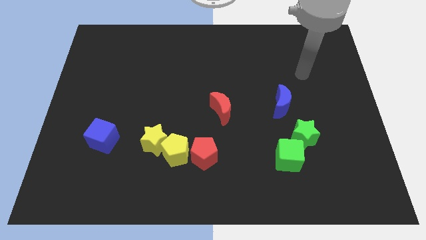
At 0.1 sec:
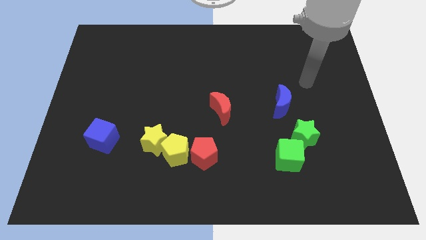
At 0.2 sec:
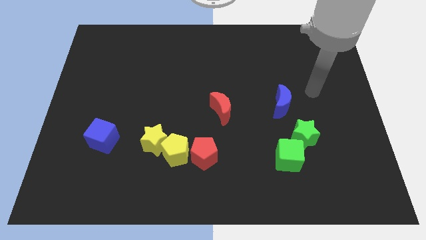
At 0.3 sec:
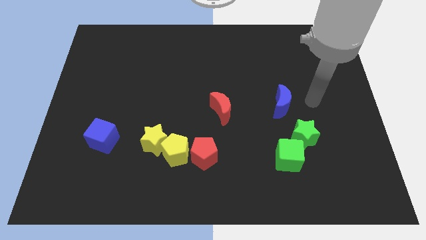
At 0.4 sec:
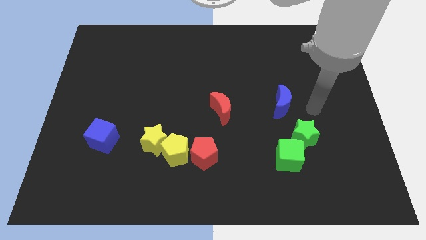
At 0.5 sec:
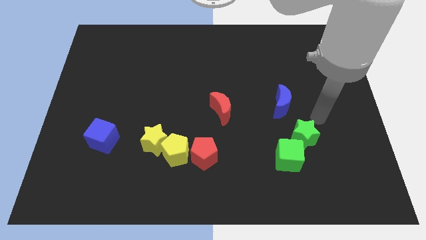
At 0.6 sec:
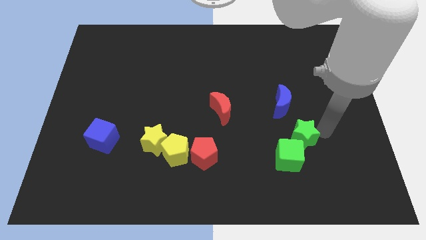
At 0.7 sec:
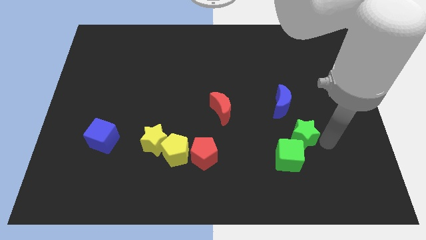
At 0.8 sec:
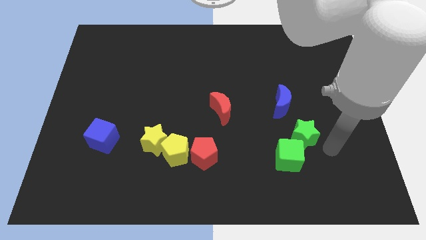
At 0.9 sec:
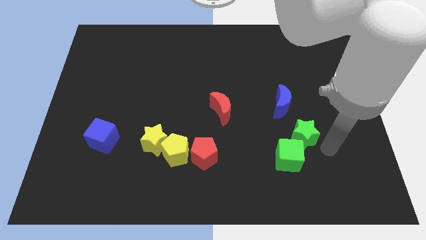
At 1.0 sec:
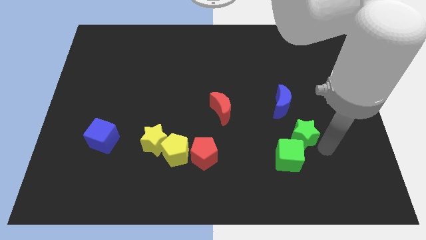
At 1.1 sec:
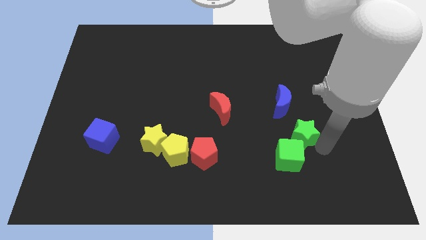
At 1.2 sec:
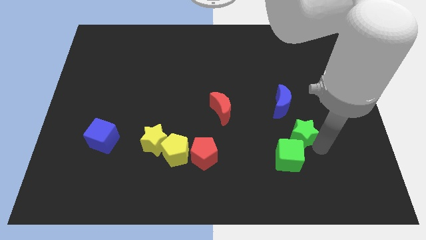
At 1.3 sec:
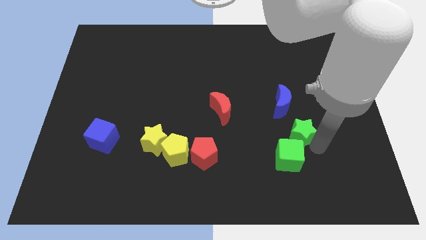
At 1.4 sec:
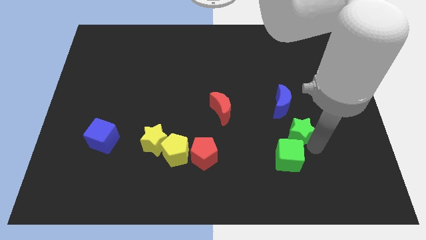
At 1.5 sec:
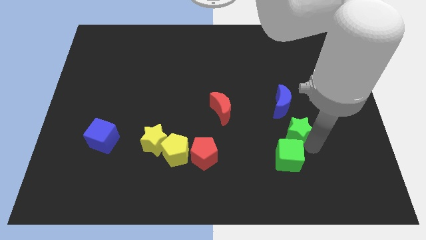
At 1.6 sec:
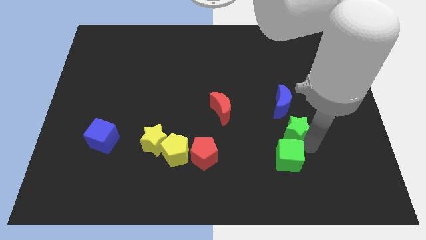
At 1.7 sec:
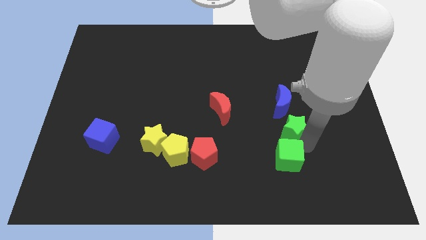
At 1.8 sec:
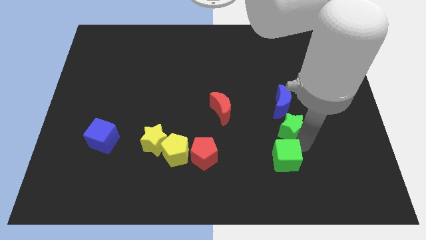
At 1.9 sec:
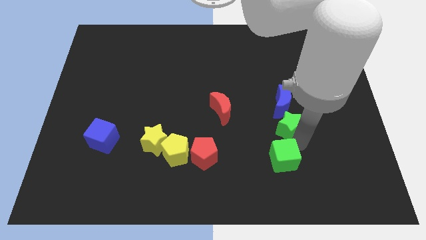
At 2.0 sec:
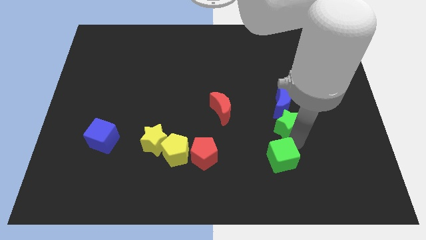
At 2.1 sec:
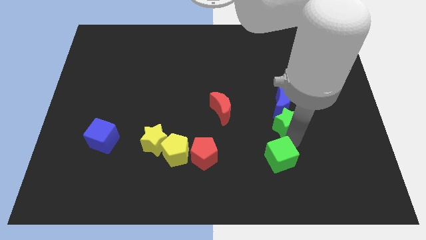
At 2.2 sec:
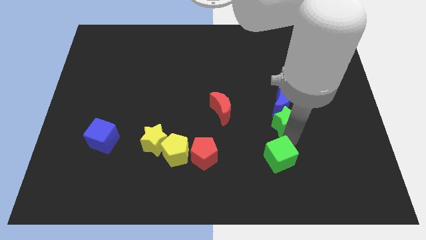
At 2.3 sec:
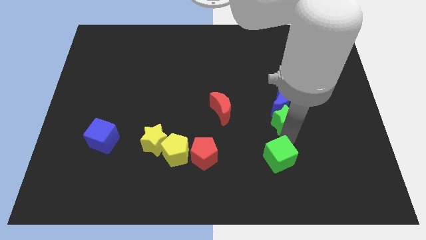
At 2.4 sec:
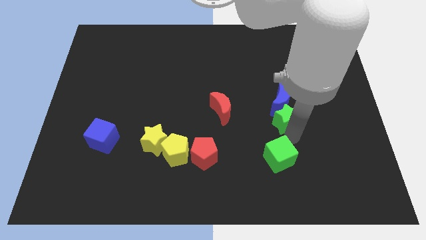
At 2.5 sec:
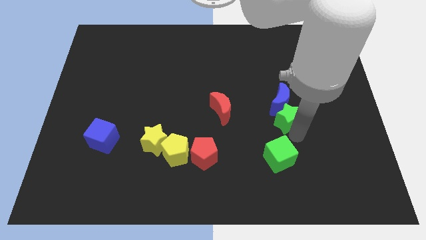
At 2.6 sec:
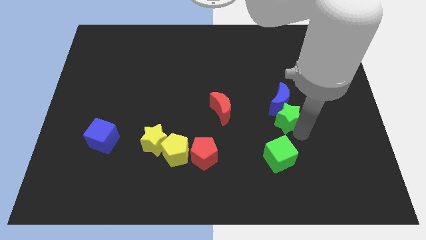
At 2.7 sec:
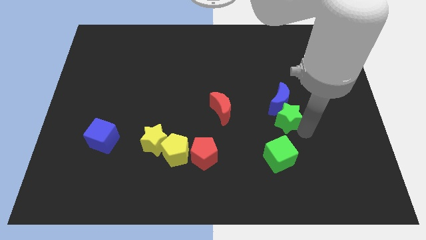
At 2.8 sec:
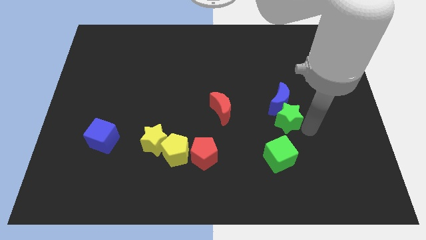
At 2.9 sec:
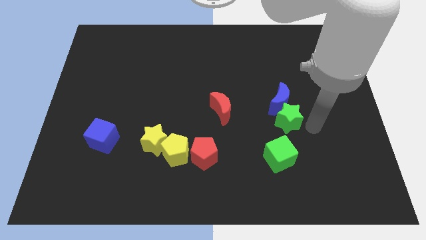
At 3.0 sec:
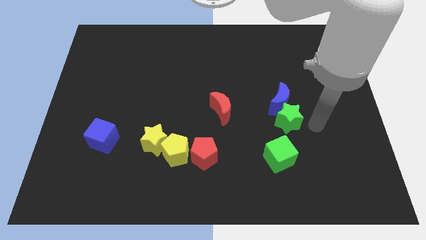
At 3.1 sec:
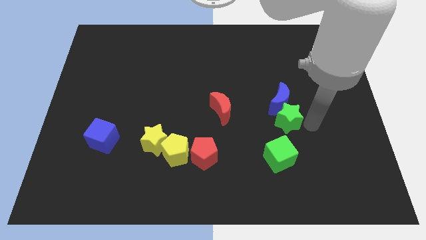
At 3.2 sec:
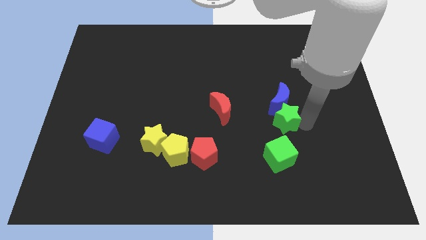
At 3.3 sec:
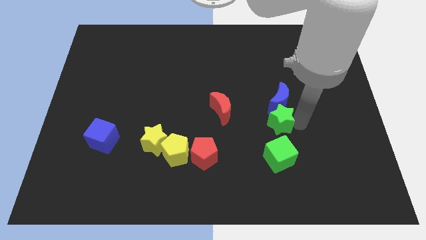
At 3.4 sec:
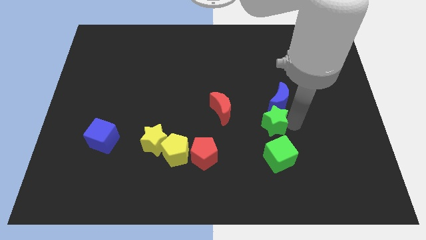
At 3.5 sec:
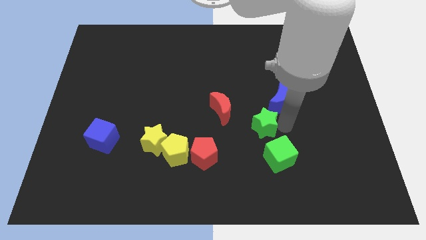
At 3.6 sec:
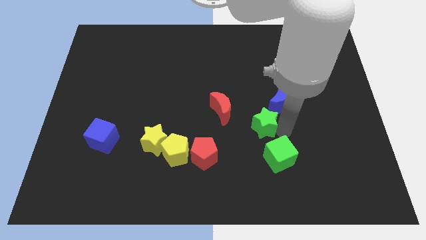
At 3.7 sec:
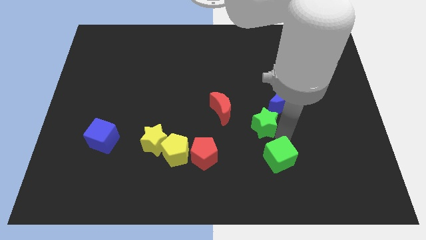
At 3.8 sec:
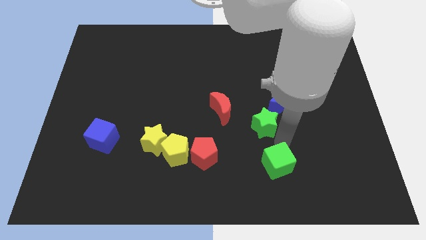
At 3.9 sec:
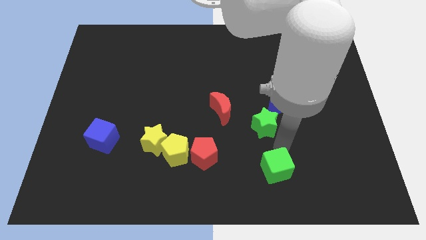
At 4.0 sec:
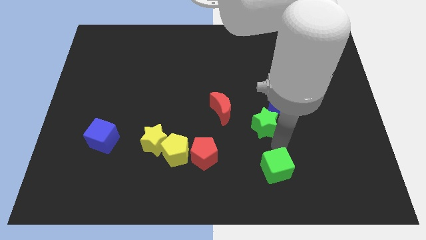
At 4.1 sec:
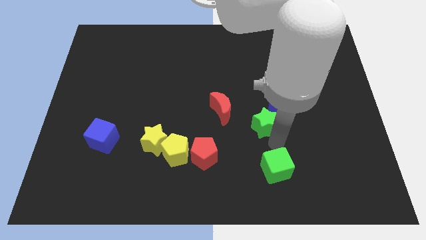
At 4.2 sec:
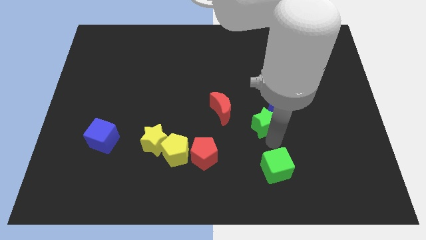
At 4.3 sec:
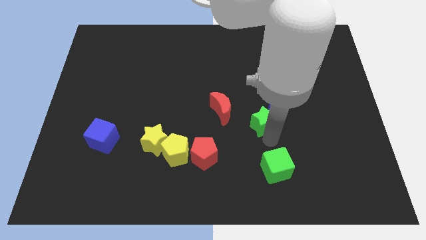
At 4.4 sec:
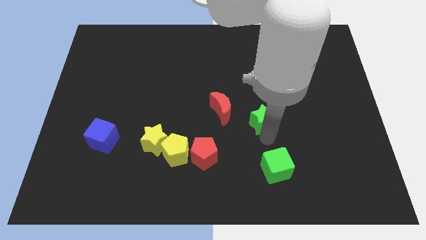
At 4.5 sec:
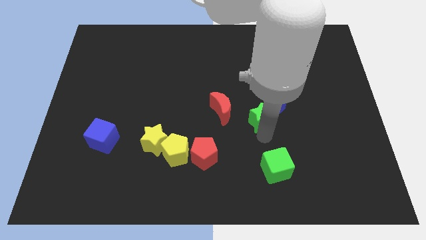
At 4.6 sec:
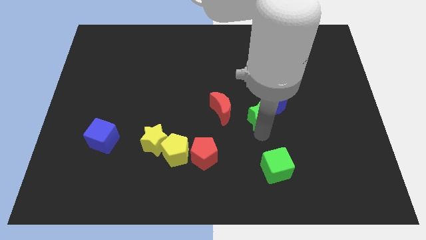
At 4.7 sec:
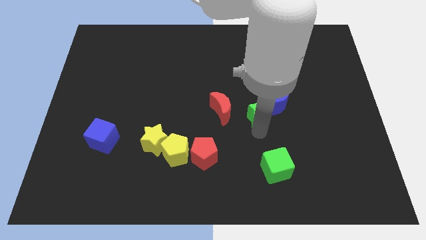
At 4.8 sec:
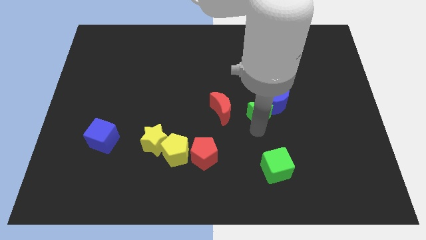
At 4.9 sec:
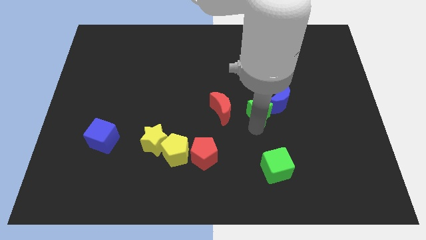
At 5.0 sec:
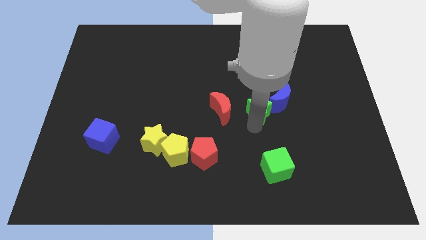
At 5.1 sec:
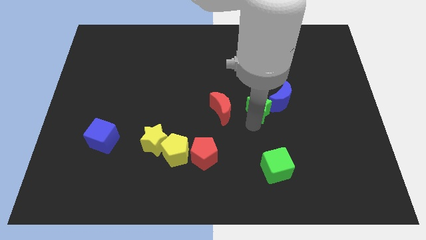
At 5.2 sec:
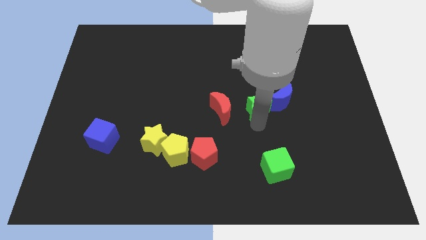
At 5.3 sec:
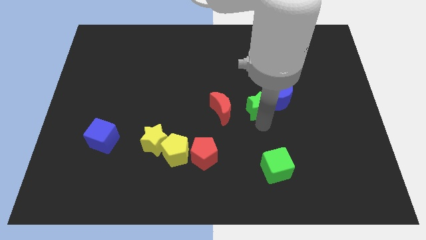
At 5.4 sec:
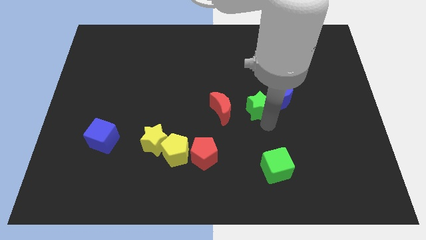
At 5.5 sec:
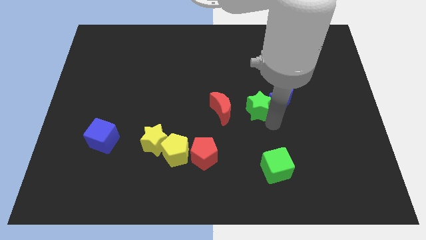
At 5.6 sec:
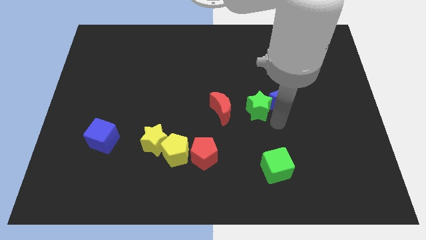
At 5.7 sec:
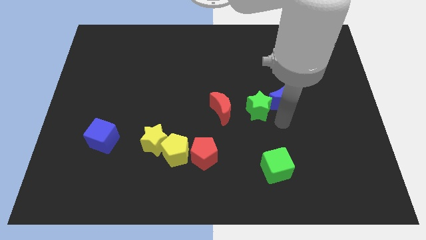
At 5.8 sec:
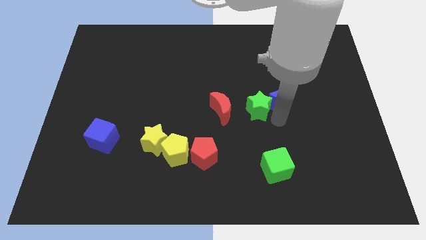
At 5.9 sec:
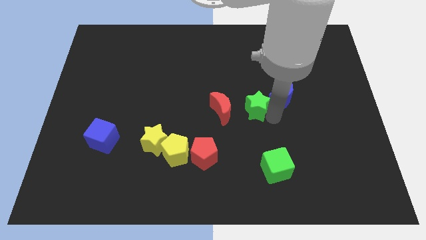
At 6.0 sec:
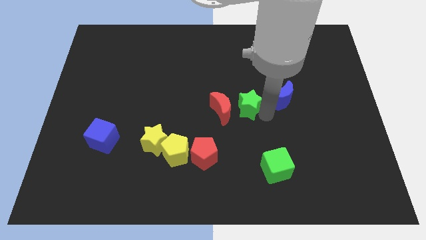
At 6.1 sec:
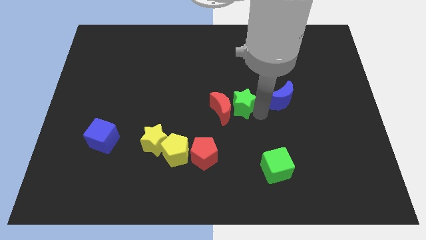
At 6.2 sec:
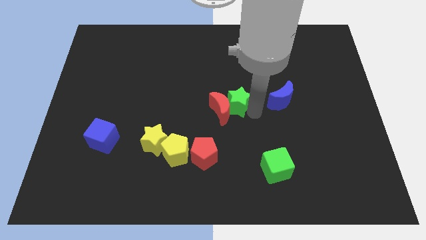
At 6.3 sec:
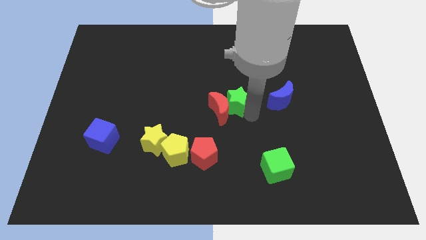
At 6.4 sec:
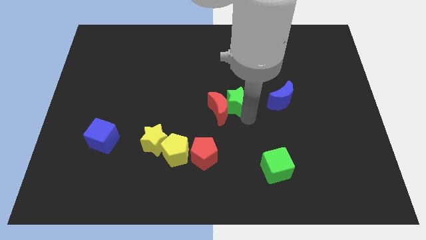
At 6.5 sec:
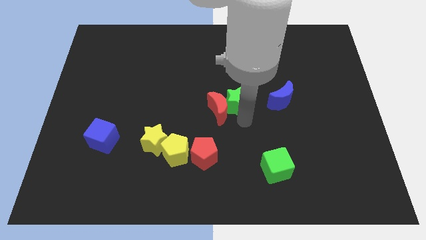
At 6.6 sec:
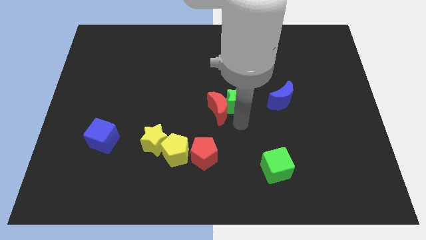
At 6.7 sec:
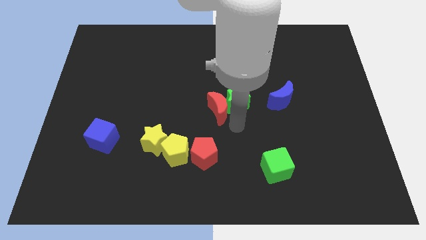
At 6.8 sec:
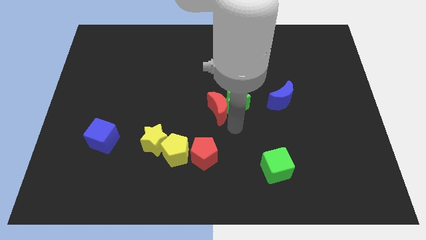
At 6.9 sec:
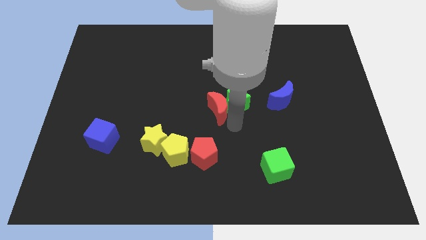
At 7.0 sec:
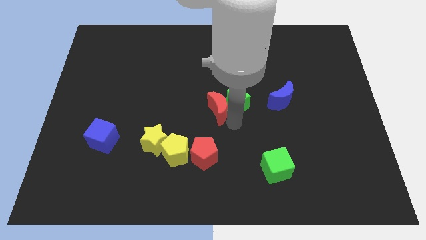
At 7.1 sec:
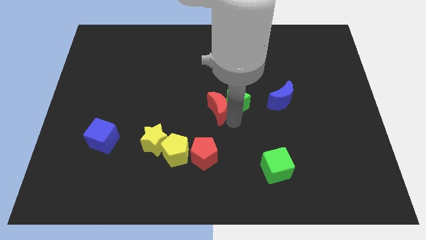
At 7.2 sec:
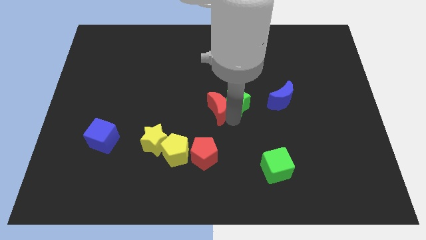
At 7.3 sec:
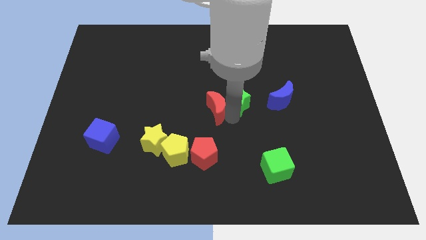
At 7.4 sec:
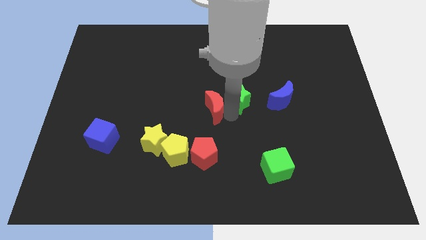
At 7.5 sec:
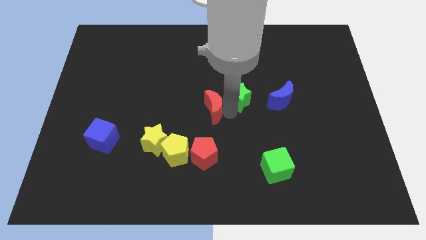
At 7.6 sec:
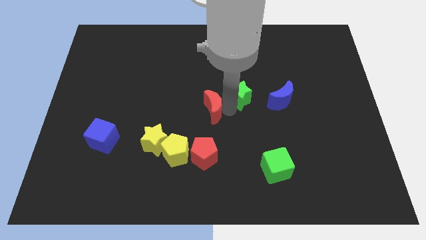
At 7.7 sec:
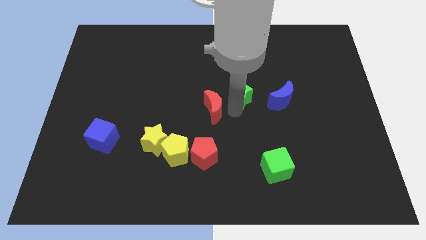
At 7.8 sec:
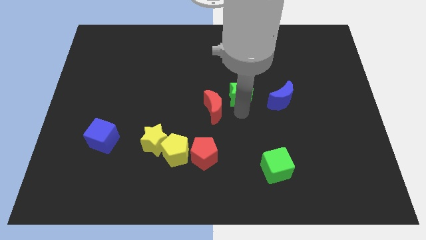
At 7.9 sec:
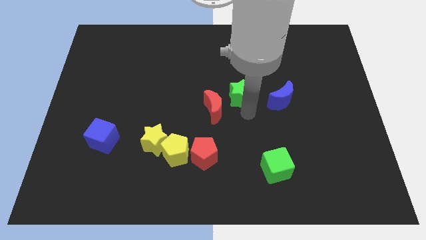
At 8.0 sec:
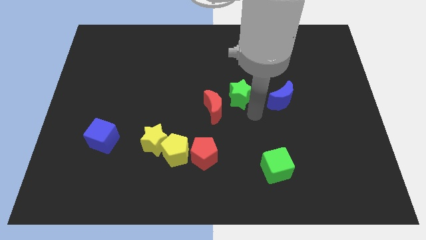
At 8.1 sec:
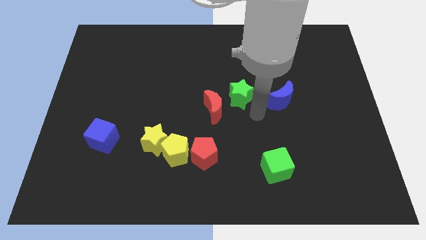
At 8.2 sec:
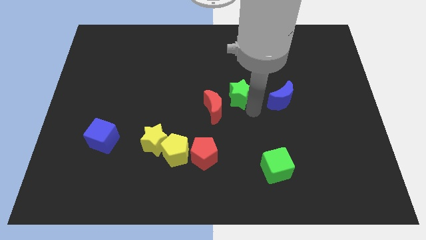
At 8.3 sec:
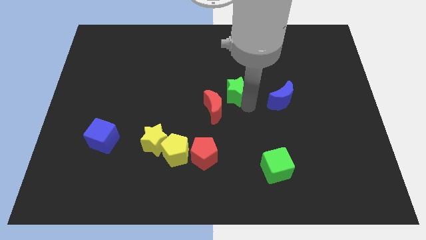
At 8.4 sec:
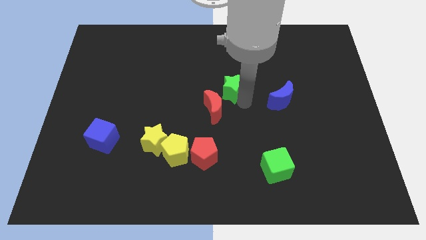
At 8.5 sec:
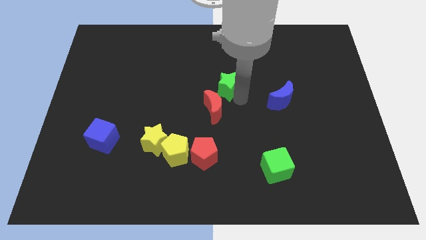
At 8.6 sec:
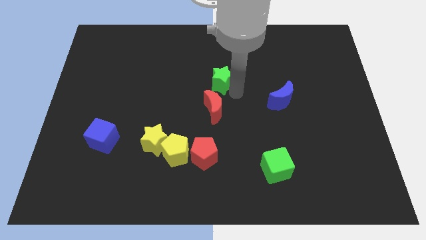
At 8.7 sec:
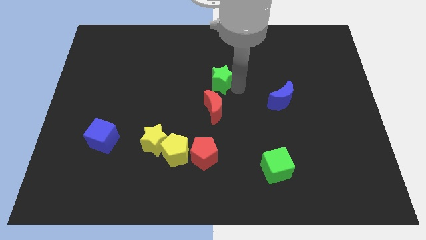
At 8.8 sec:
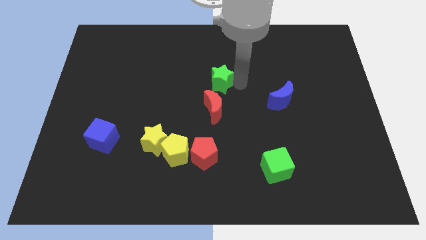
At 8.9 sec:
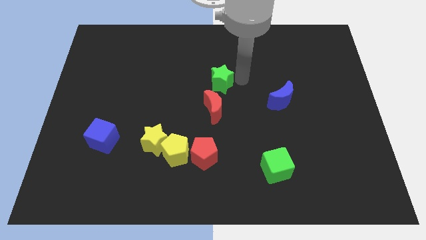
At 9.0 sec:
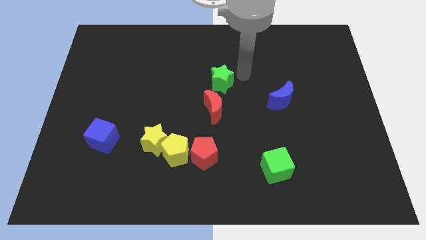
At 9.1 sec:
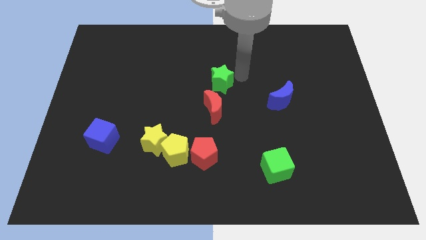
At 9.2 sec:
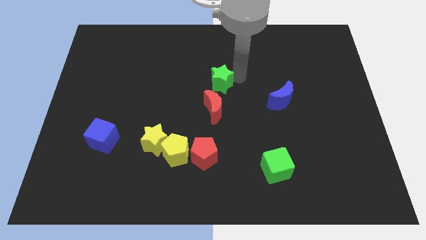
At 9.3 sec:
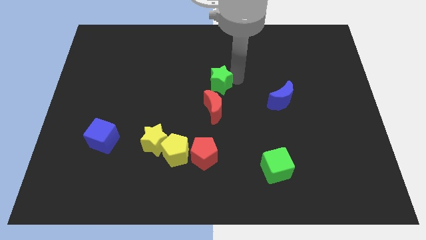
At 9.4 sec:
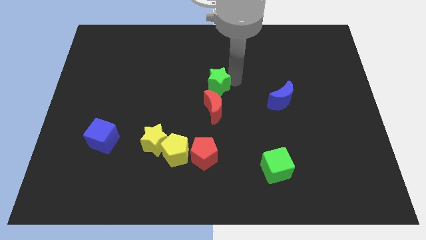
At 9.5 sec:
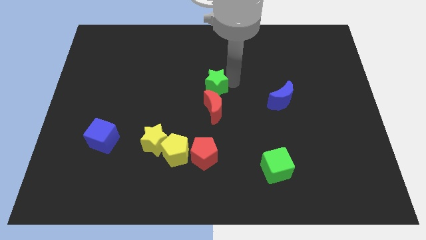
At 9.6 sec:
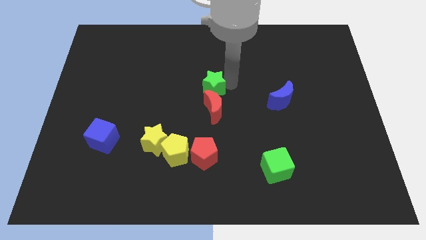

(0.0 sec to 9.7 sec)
move the green star diagonally up and to the left of the red moon
